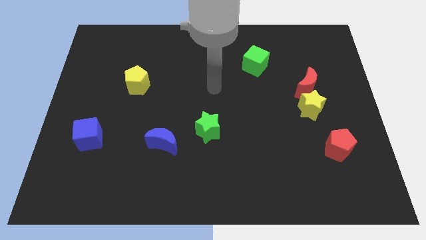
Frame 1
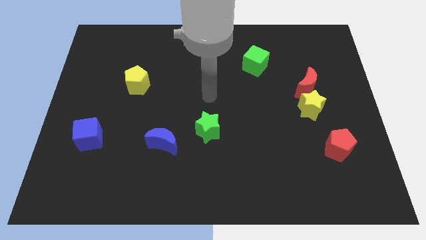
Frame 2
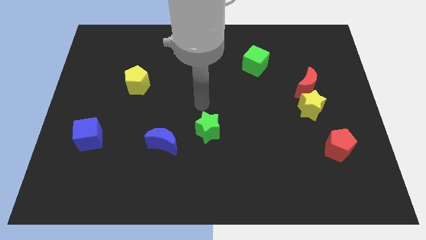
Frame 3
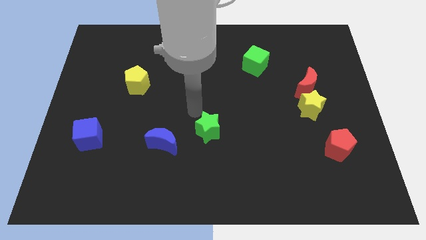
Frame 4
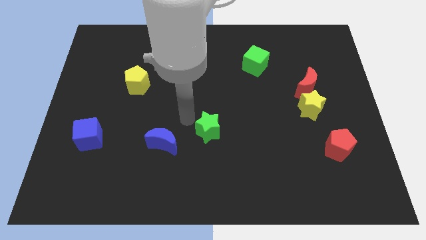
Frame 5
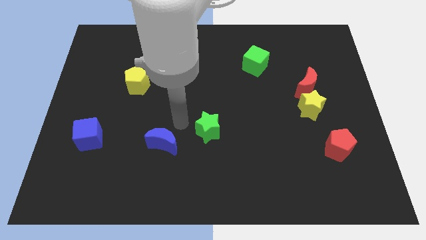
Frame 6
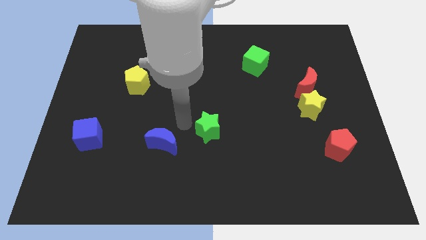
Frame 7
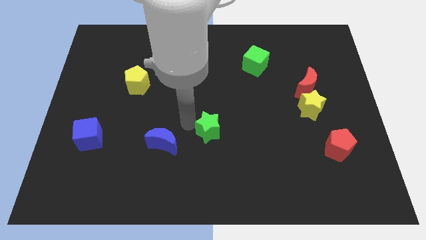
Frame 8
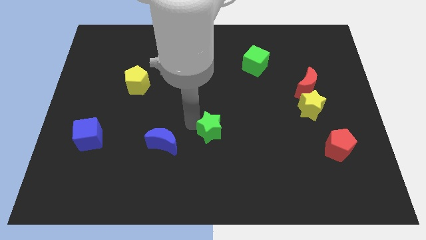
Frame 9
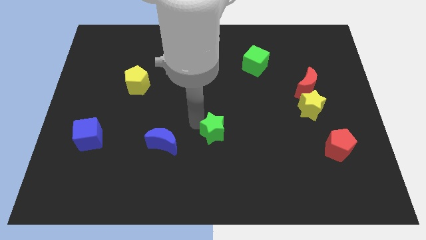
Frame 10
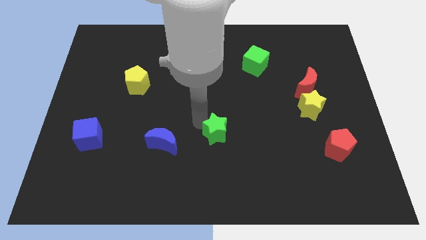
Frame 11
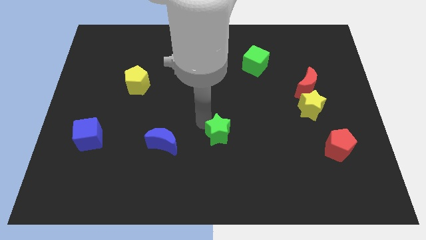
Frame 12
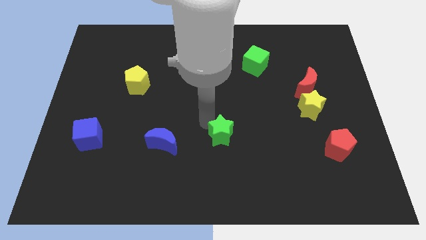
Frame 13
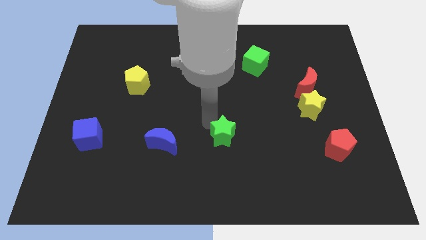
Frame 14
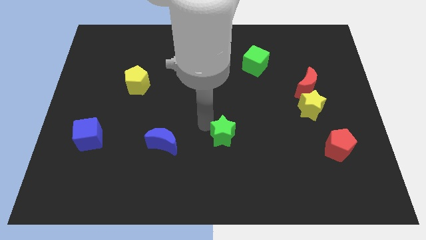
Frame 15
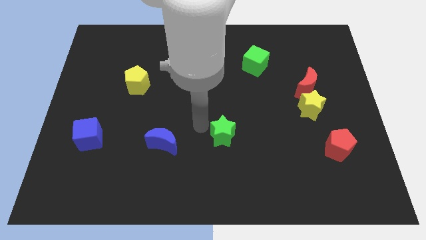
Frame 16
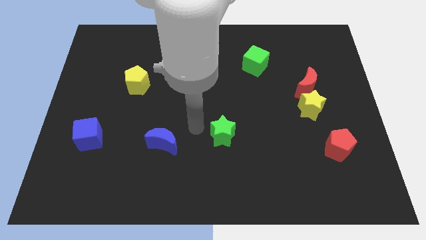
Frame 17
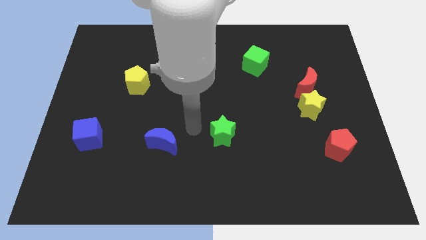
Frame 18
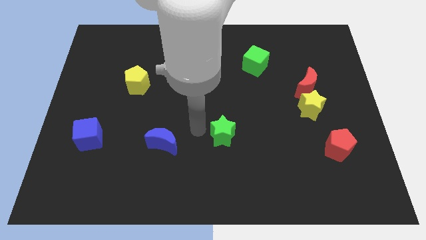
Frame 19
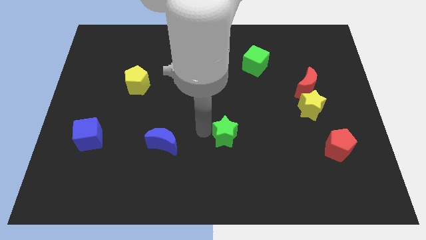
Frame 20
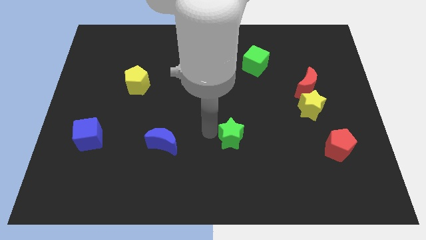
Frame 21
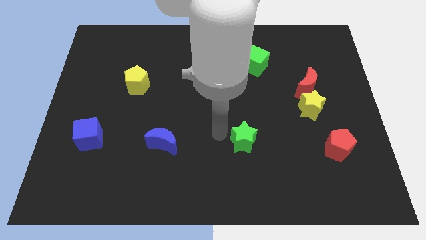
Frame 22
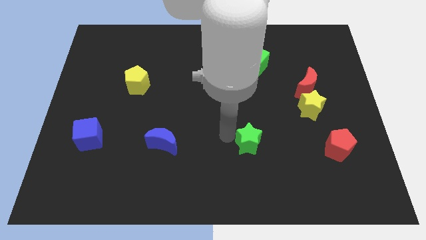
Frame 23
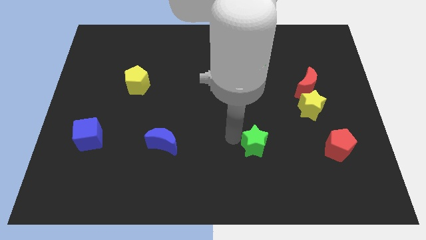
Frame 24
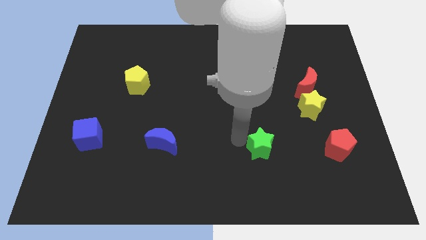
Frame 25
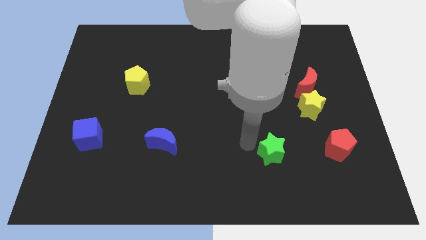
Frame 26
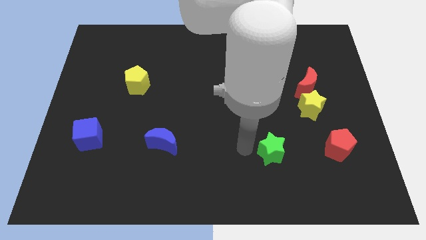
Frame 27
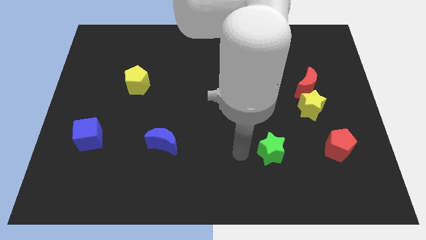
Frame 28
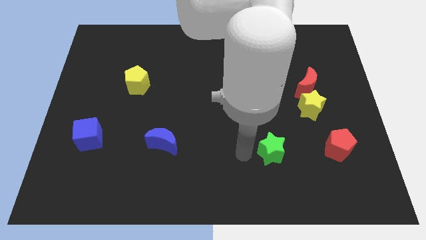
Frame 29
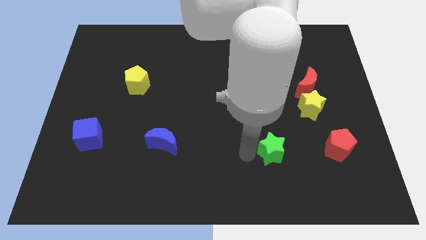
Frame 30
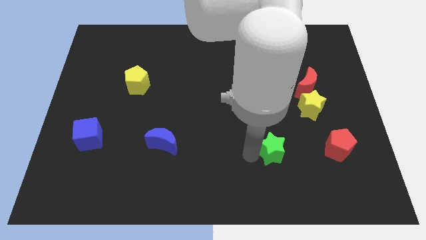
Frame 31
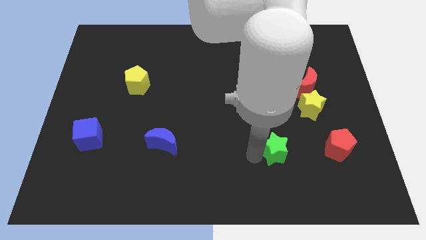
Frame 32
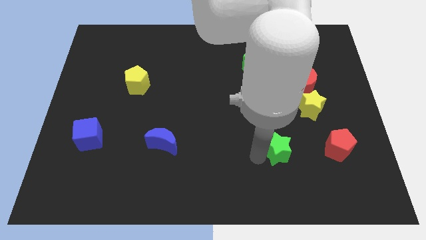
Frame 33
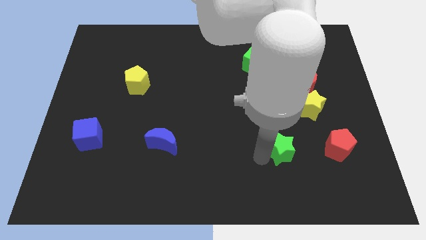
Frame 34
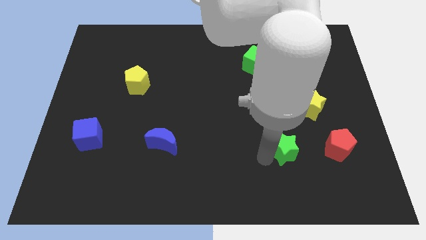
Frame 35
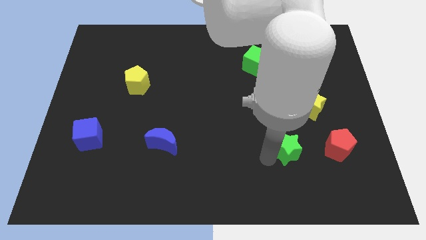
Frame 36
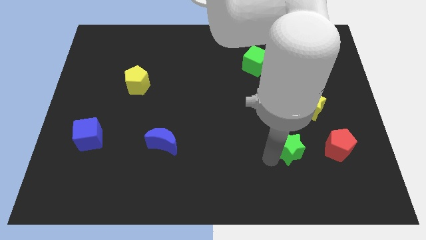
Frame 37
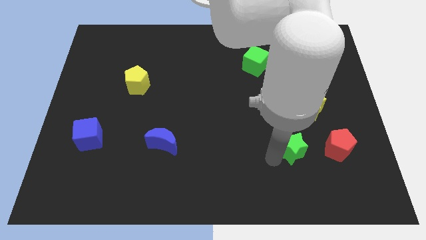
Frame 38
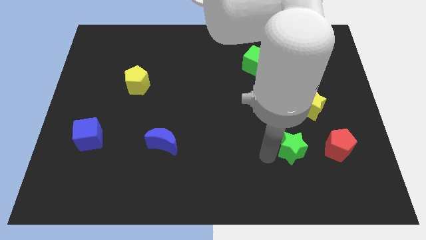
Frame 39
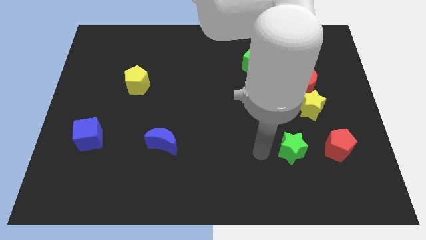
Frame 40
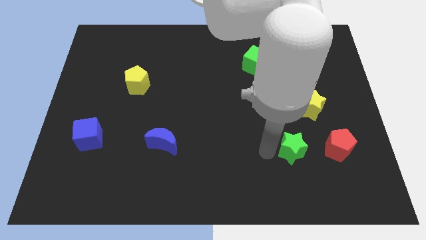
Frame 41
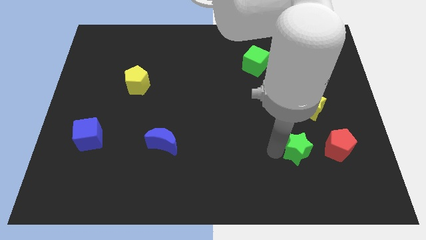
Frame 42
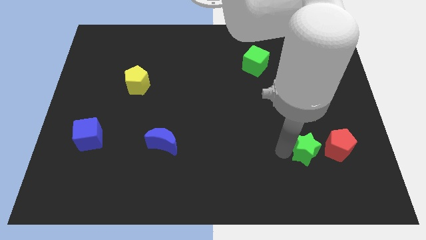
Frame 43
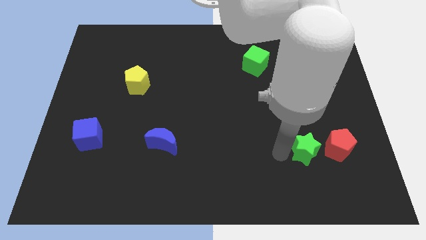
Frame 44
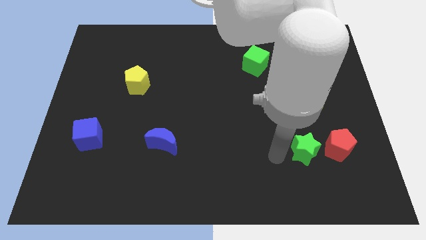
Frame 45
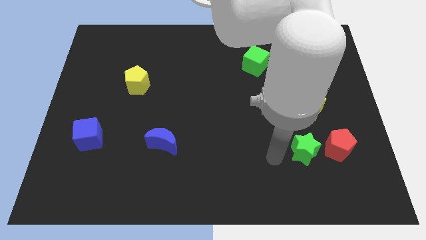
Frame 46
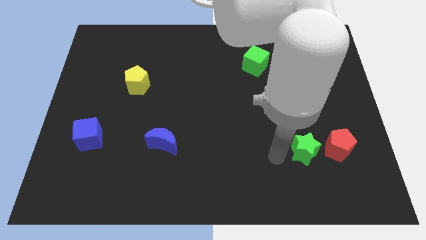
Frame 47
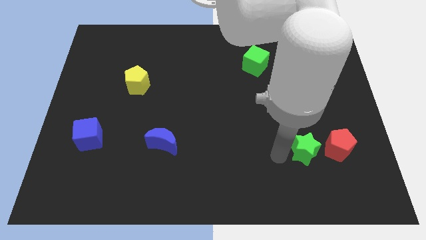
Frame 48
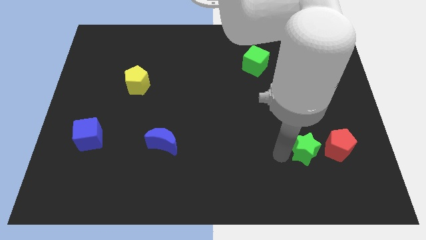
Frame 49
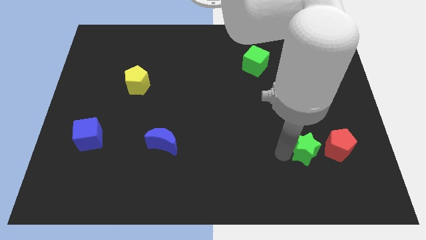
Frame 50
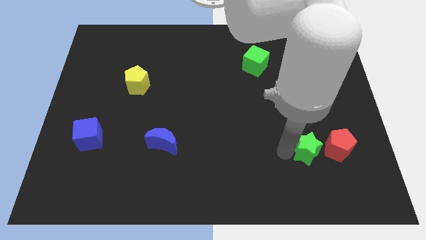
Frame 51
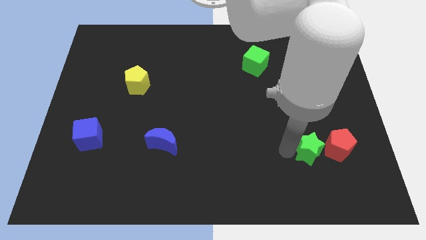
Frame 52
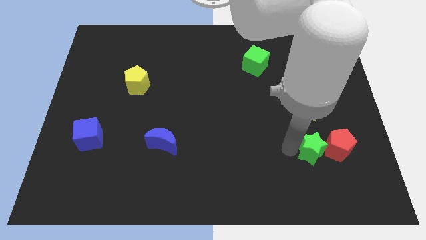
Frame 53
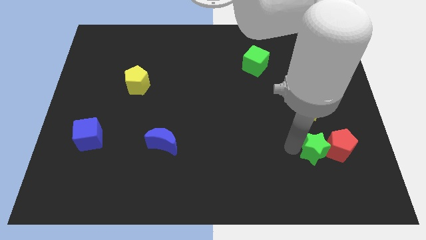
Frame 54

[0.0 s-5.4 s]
push the green star close to the red pentagon

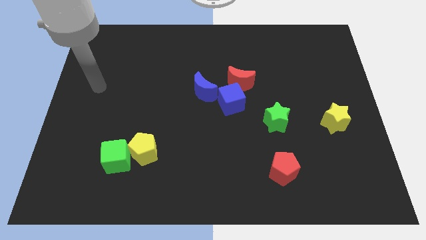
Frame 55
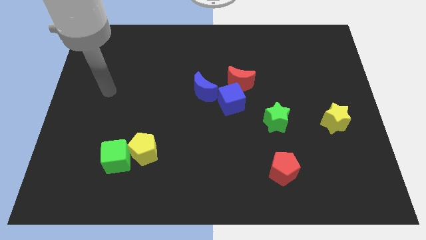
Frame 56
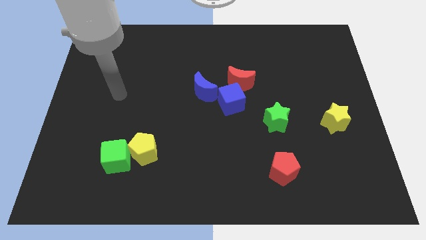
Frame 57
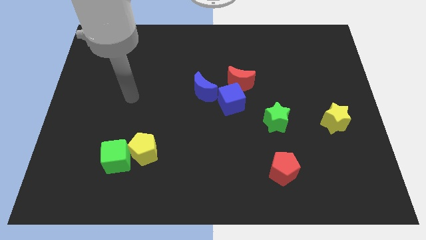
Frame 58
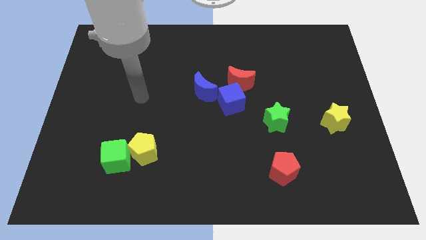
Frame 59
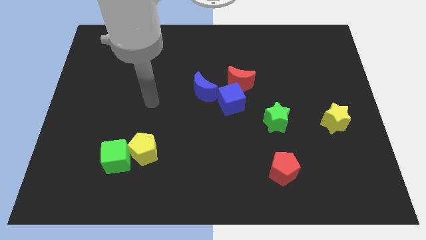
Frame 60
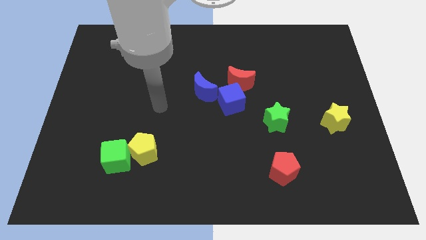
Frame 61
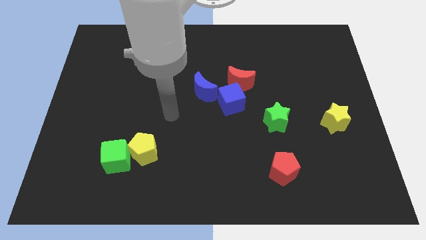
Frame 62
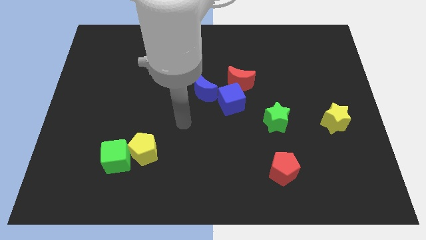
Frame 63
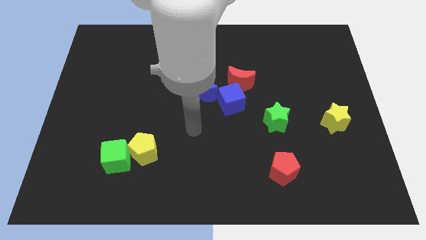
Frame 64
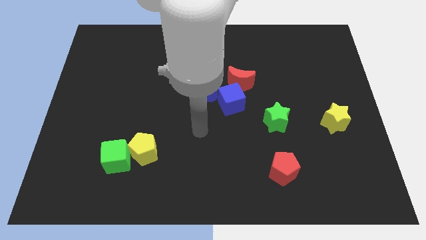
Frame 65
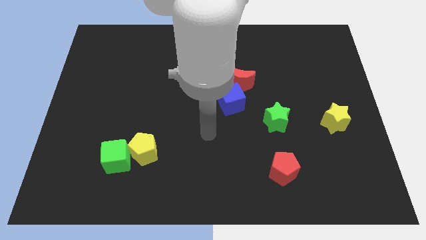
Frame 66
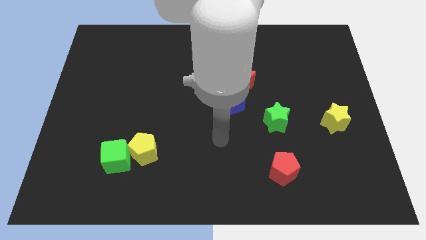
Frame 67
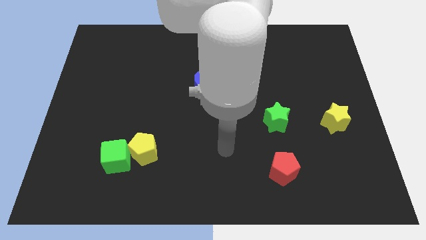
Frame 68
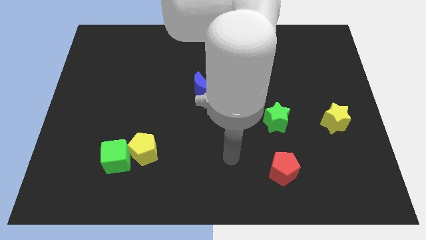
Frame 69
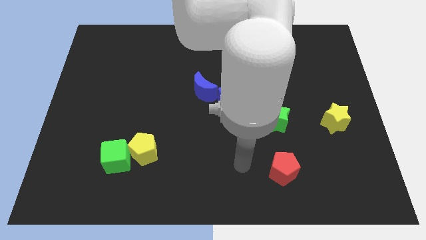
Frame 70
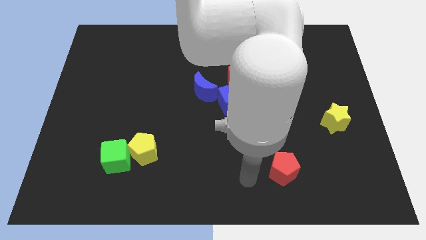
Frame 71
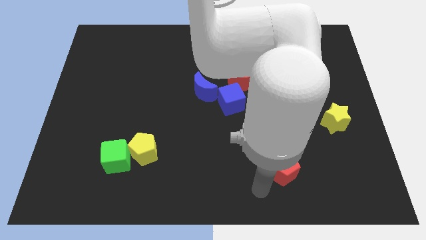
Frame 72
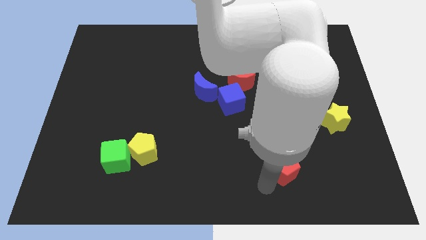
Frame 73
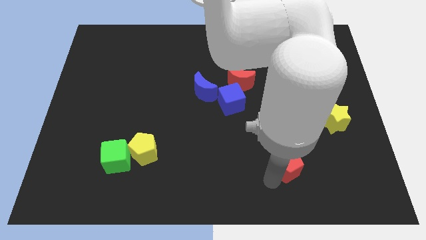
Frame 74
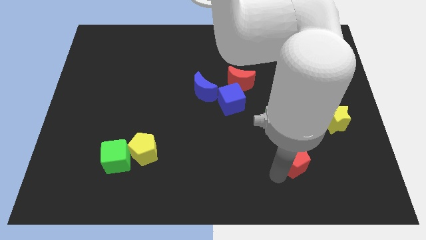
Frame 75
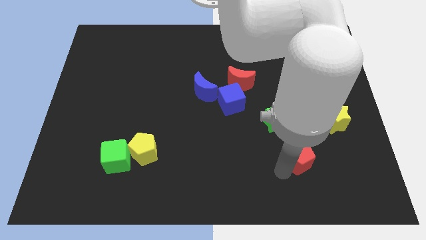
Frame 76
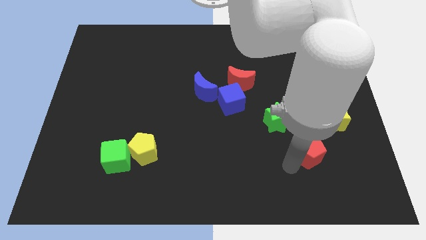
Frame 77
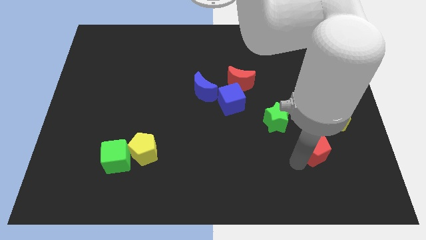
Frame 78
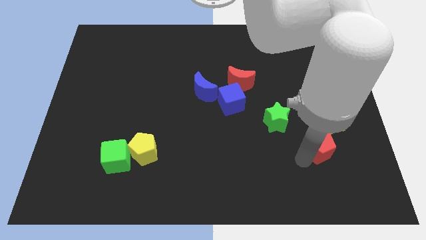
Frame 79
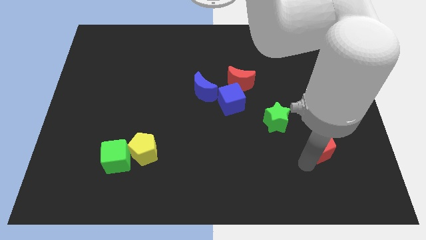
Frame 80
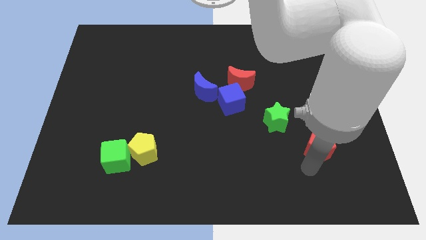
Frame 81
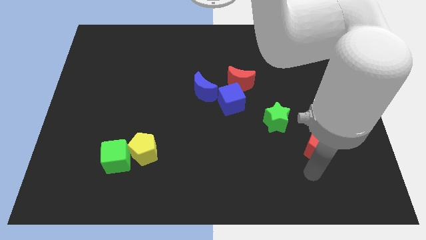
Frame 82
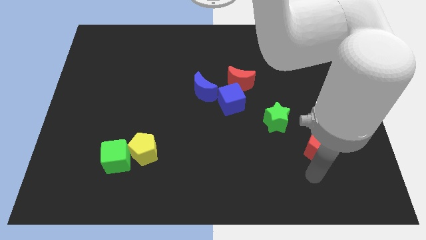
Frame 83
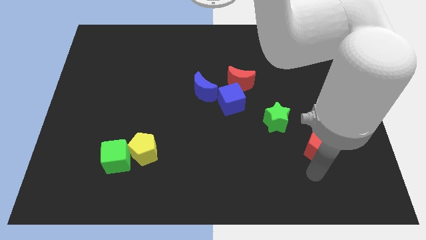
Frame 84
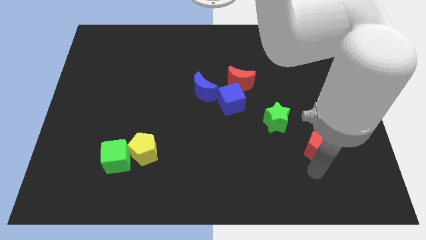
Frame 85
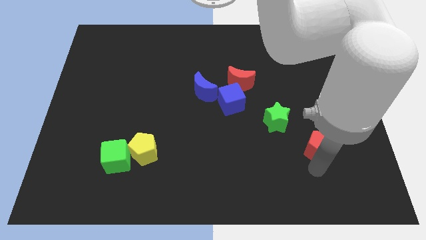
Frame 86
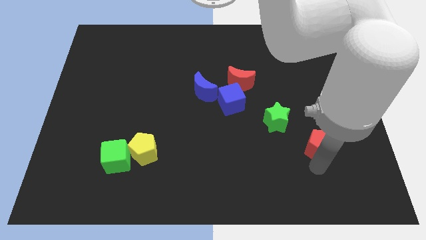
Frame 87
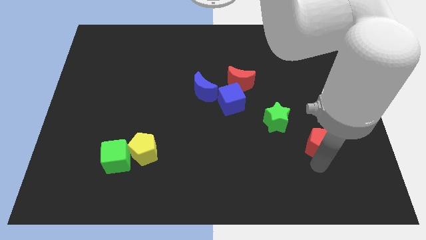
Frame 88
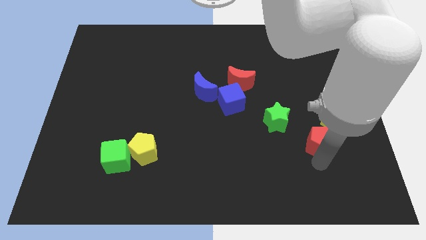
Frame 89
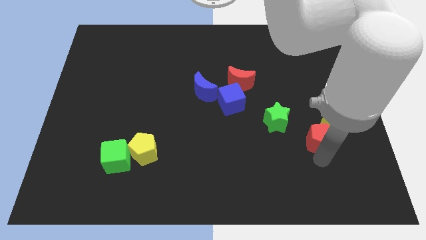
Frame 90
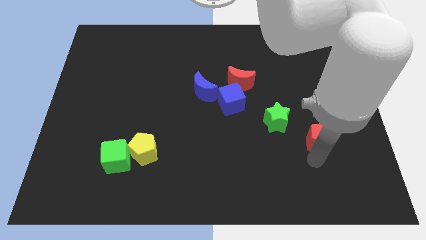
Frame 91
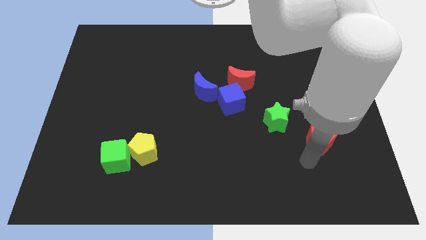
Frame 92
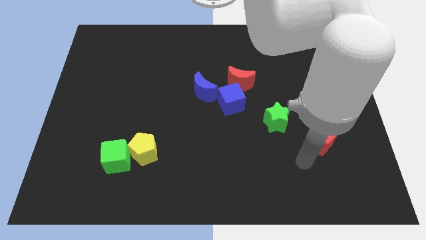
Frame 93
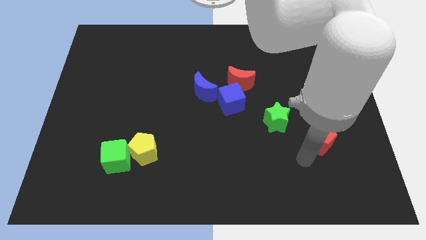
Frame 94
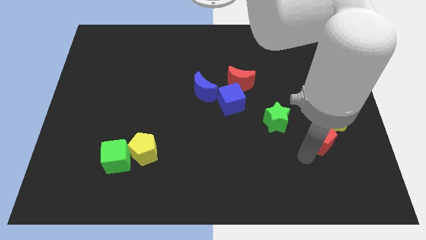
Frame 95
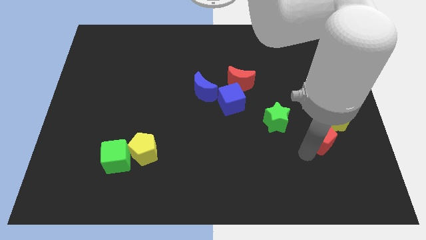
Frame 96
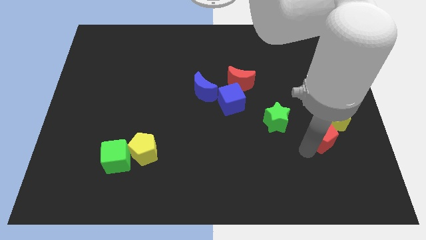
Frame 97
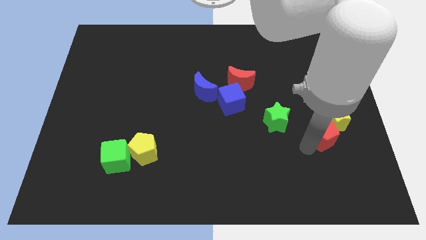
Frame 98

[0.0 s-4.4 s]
slide the red pentagon to the yellow star
